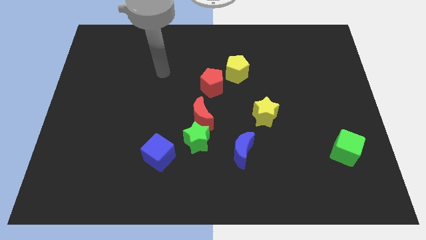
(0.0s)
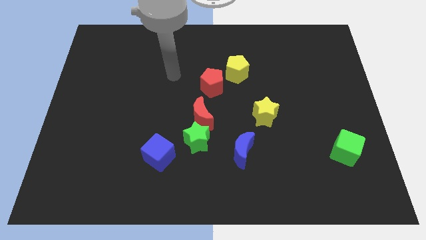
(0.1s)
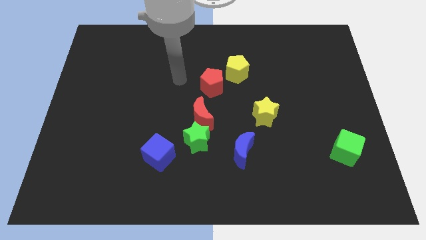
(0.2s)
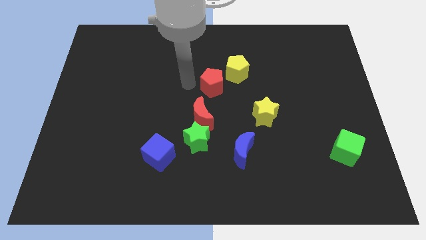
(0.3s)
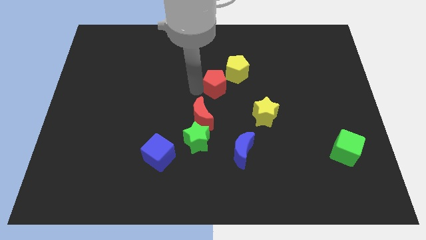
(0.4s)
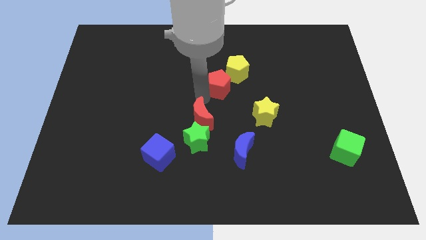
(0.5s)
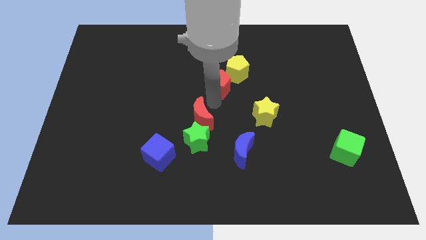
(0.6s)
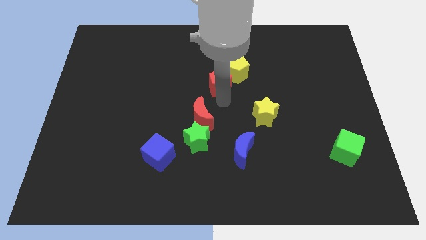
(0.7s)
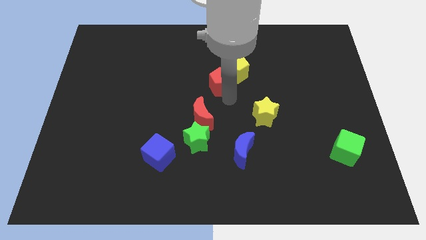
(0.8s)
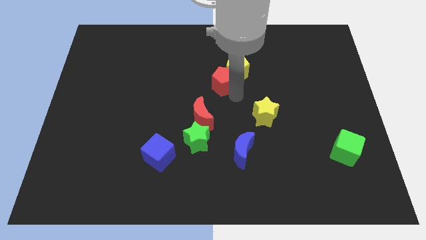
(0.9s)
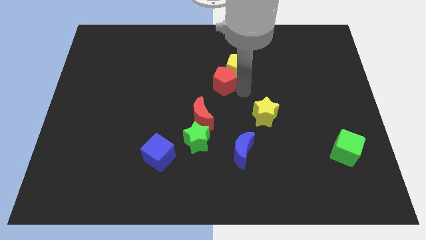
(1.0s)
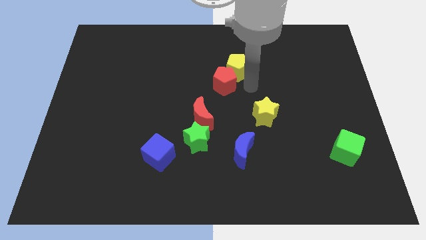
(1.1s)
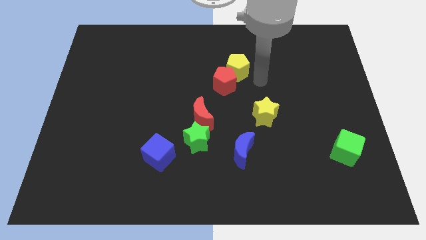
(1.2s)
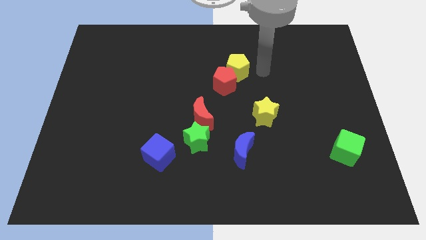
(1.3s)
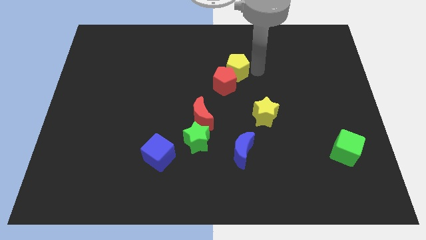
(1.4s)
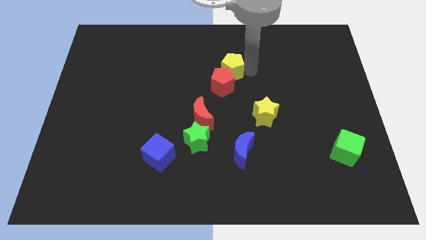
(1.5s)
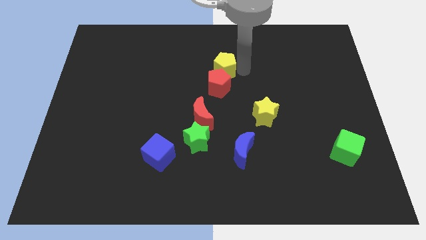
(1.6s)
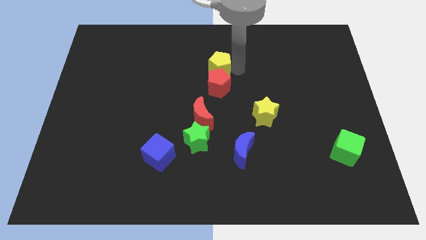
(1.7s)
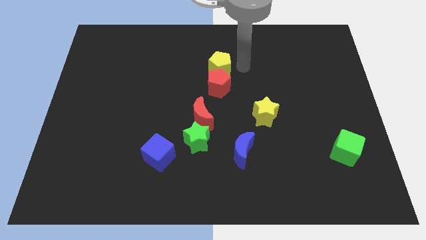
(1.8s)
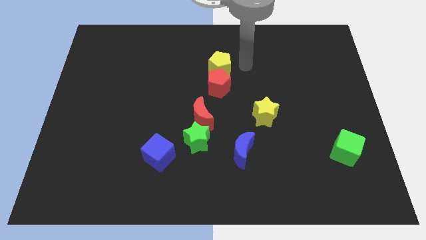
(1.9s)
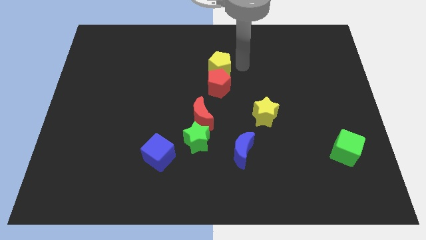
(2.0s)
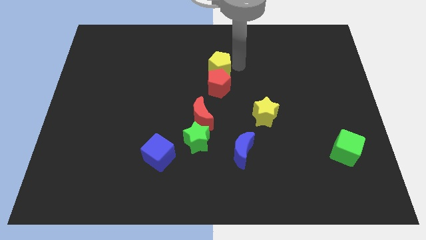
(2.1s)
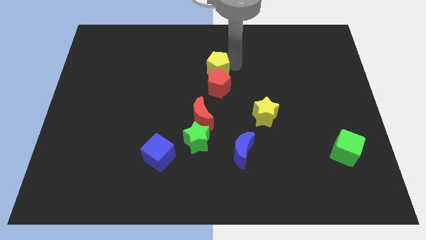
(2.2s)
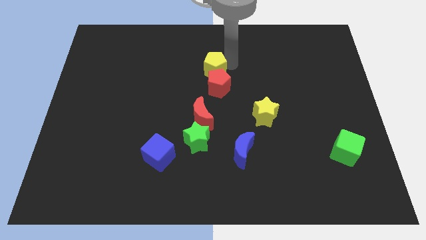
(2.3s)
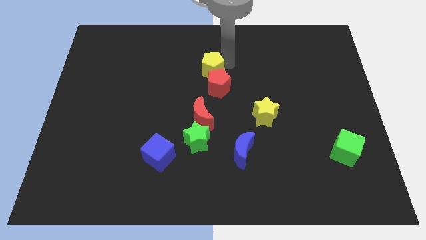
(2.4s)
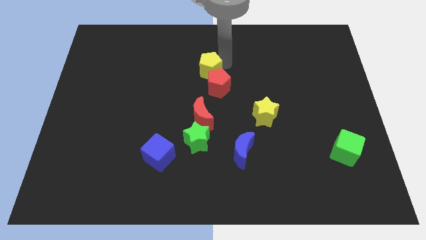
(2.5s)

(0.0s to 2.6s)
move the yellow pentagon left a little bit

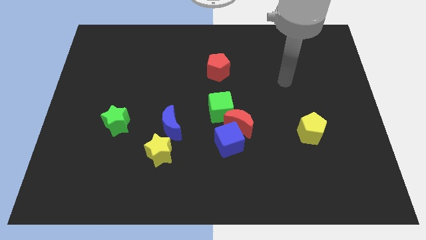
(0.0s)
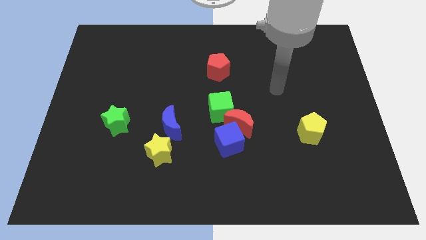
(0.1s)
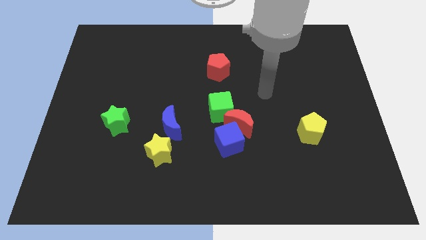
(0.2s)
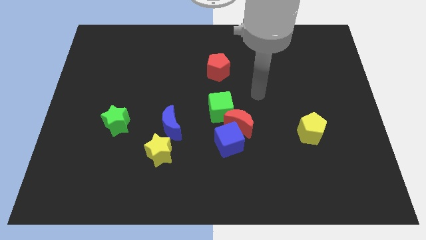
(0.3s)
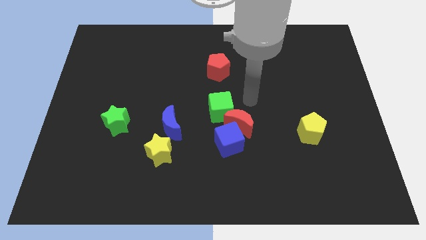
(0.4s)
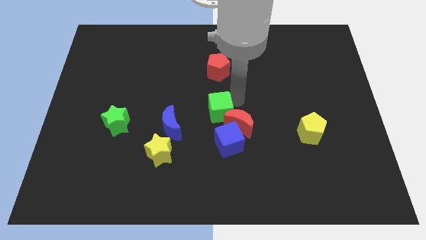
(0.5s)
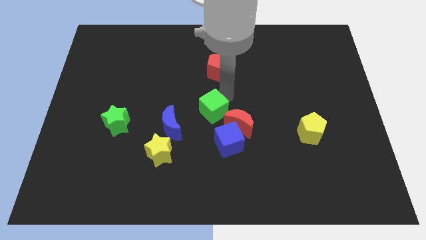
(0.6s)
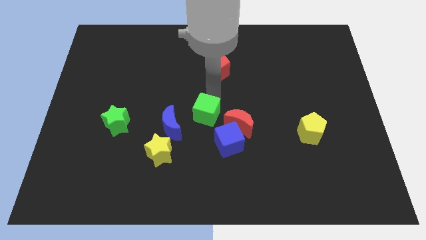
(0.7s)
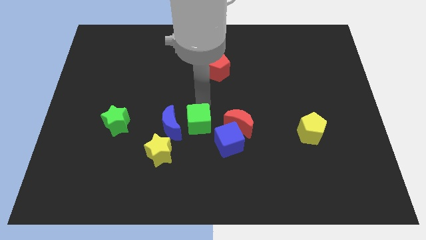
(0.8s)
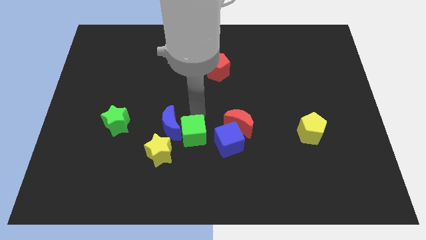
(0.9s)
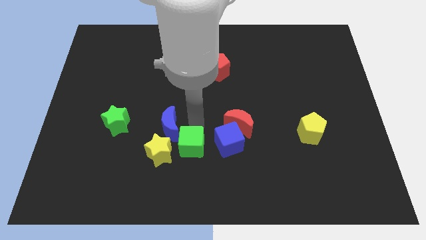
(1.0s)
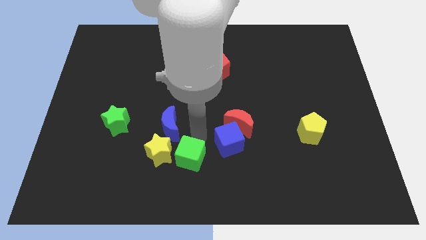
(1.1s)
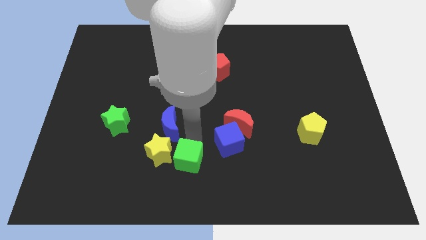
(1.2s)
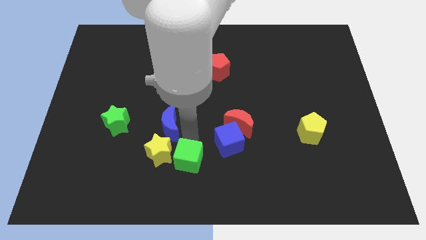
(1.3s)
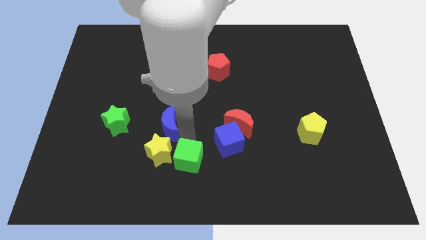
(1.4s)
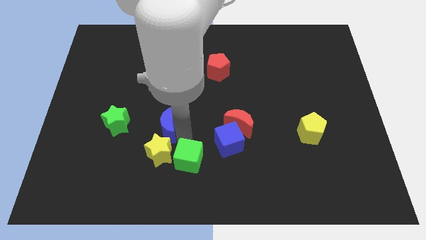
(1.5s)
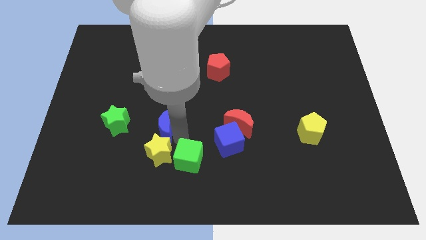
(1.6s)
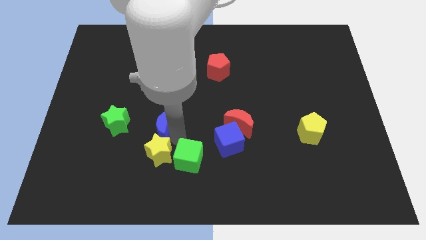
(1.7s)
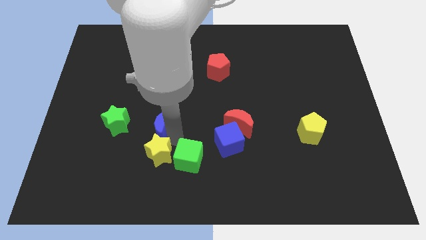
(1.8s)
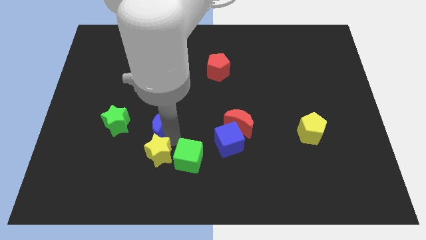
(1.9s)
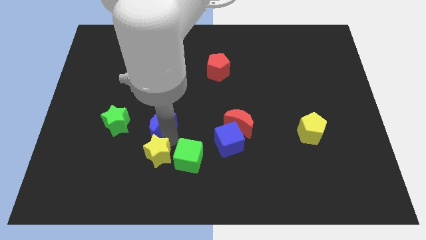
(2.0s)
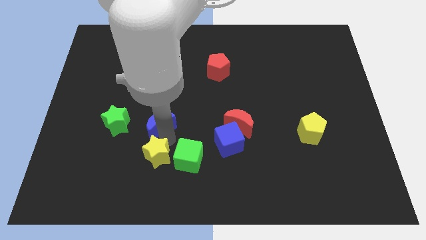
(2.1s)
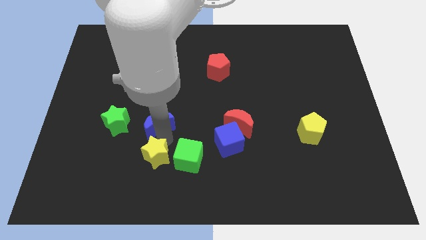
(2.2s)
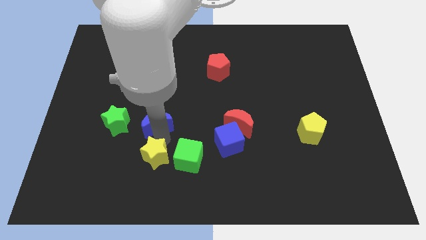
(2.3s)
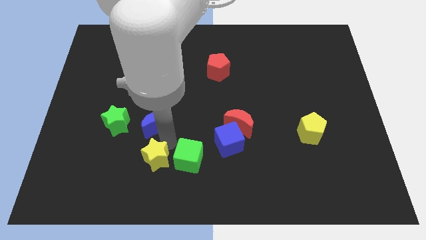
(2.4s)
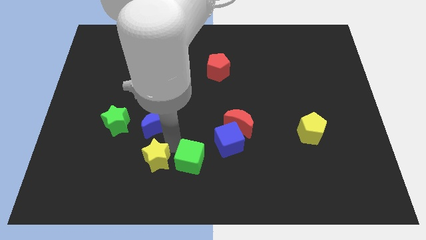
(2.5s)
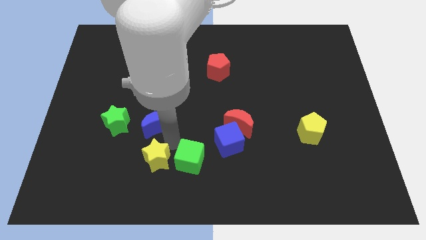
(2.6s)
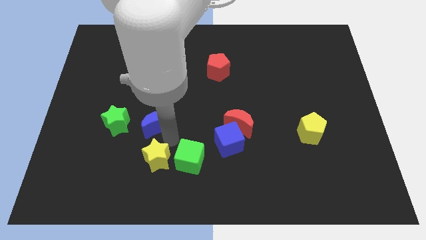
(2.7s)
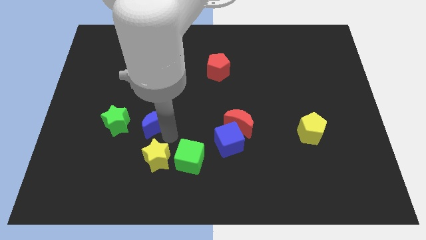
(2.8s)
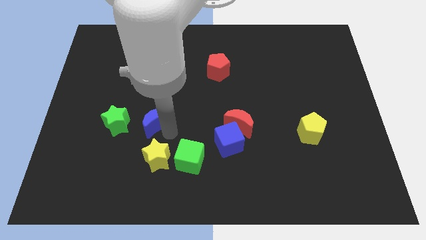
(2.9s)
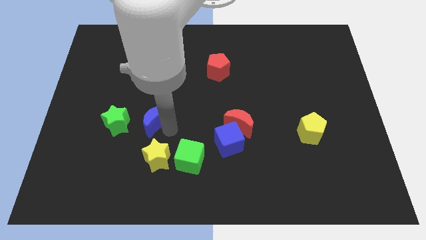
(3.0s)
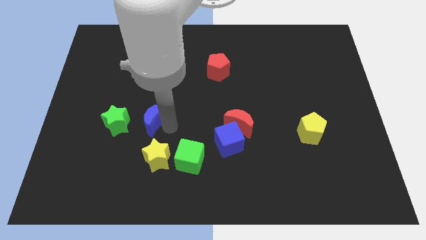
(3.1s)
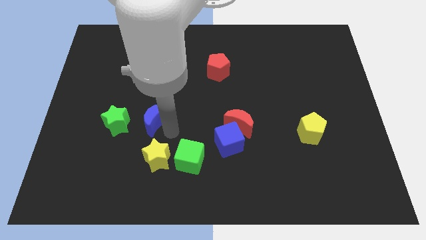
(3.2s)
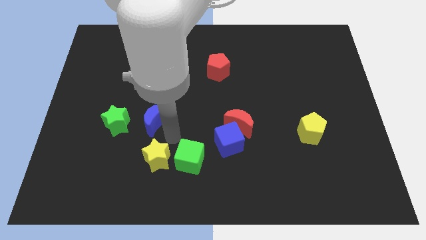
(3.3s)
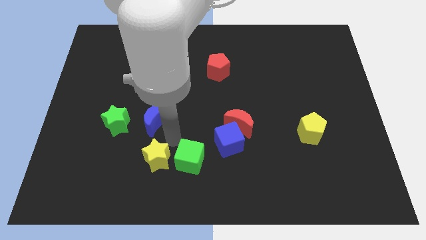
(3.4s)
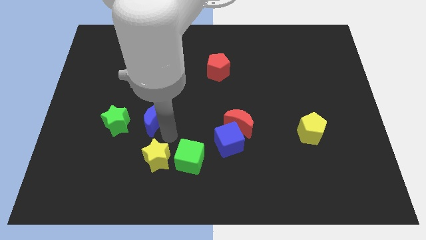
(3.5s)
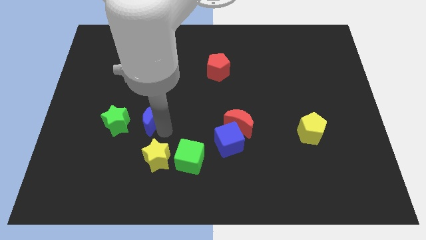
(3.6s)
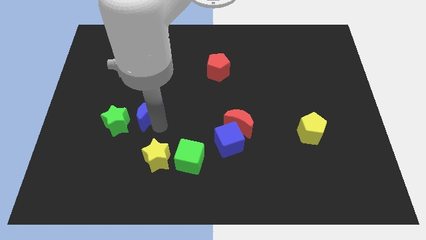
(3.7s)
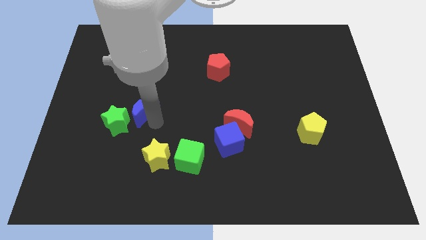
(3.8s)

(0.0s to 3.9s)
move the blue moon a little up and left diagonally

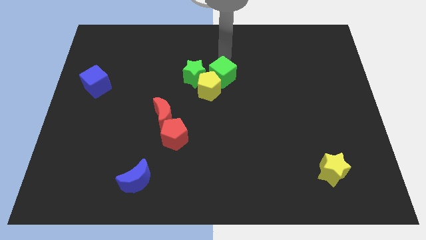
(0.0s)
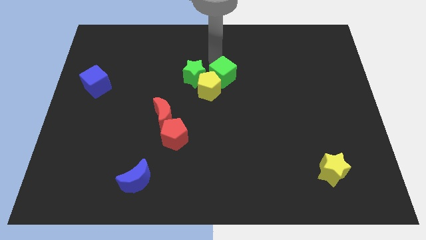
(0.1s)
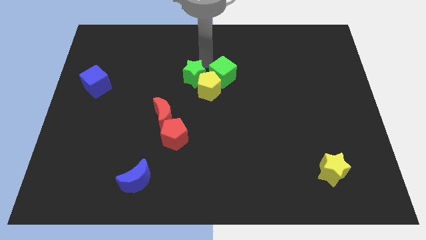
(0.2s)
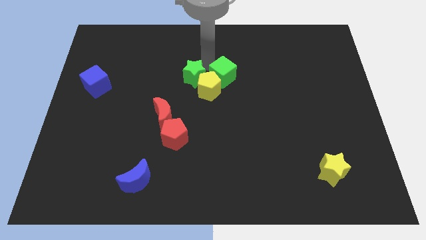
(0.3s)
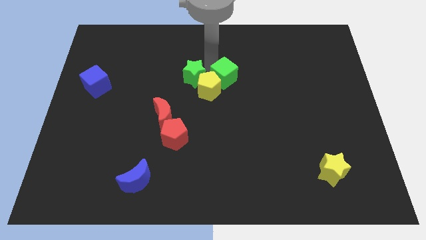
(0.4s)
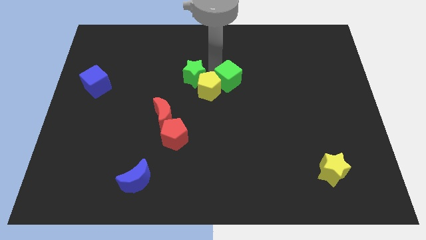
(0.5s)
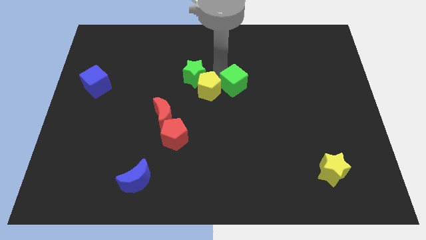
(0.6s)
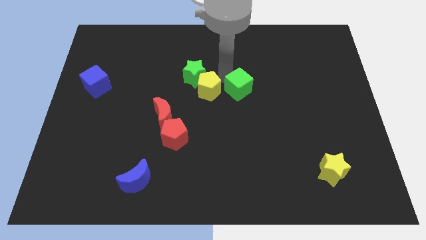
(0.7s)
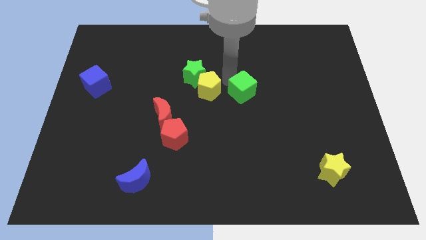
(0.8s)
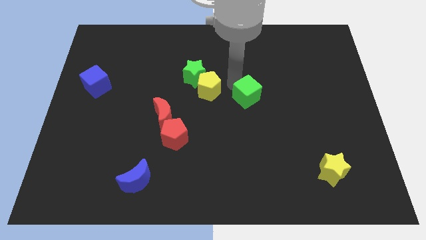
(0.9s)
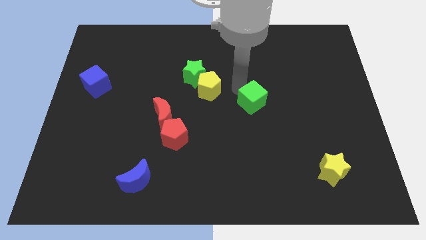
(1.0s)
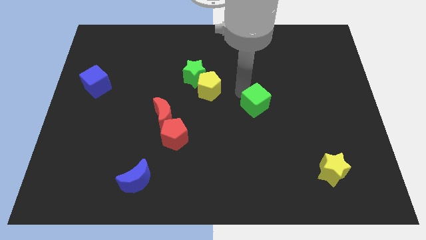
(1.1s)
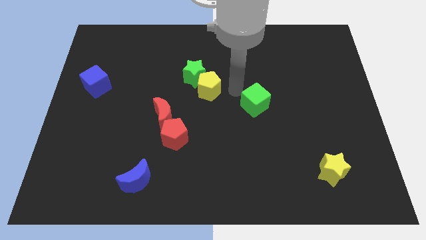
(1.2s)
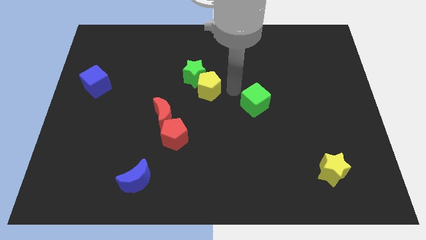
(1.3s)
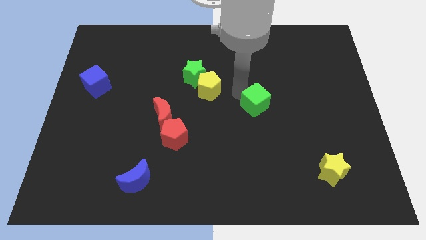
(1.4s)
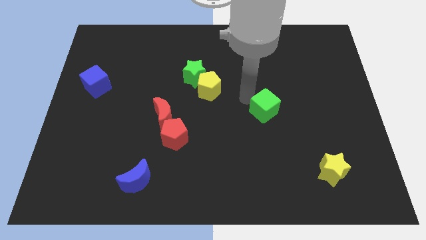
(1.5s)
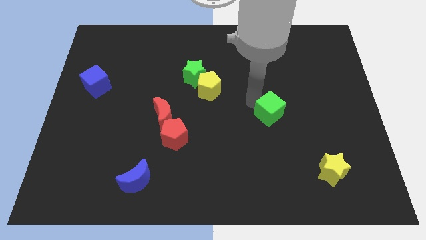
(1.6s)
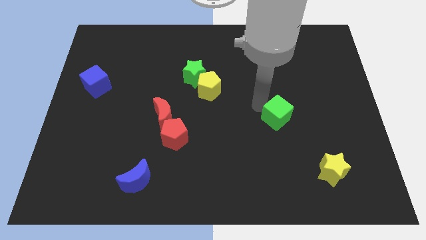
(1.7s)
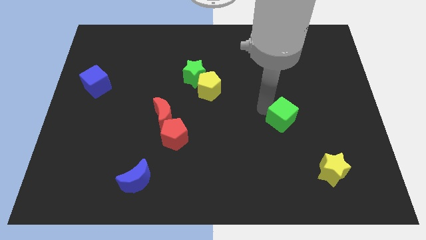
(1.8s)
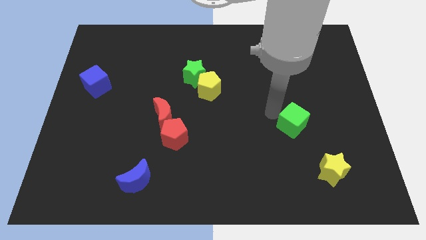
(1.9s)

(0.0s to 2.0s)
push the green cube downwards and to the right
